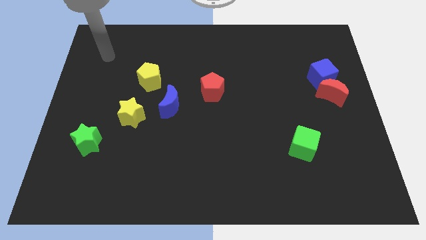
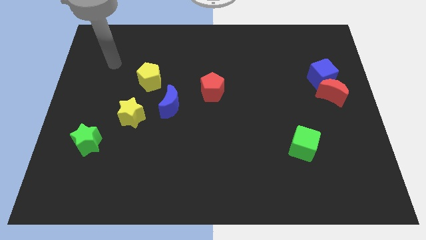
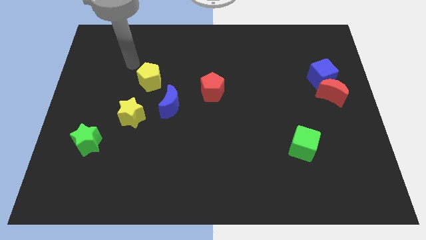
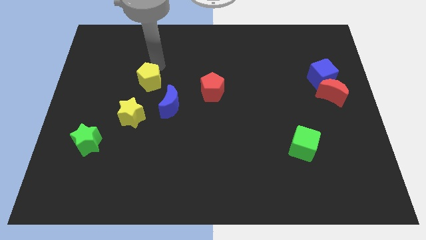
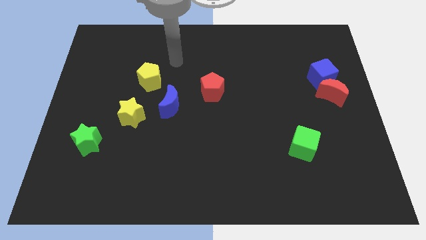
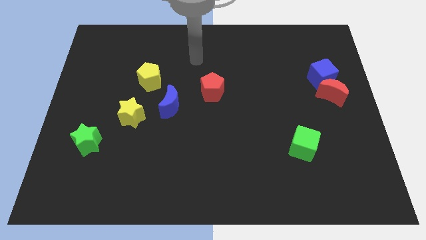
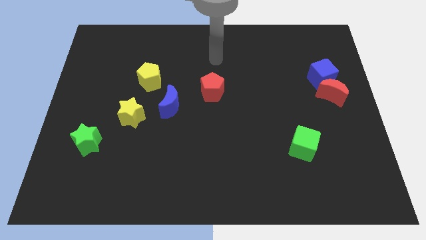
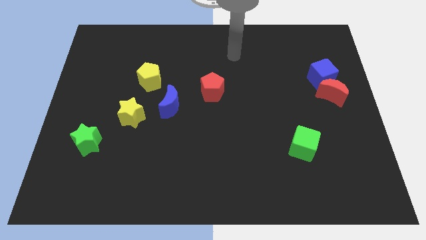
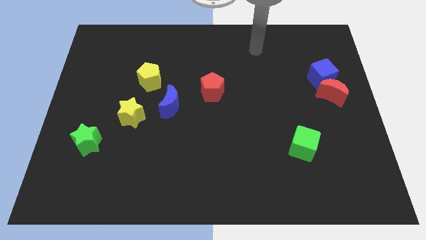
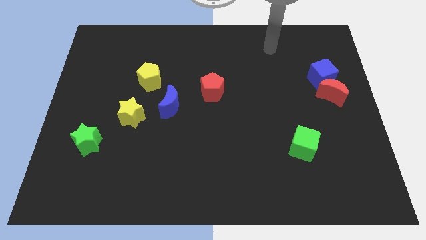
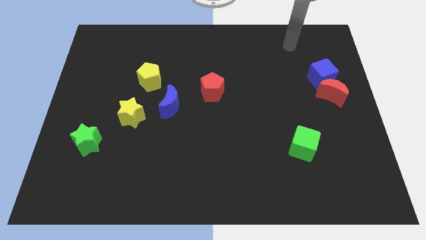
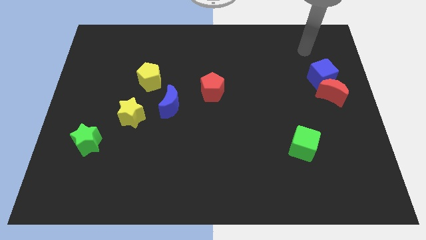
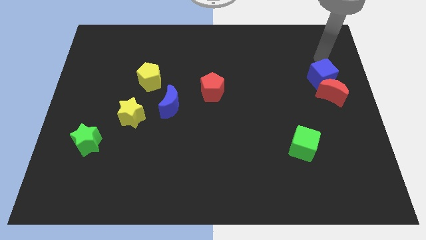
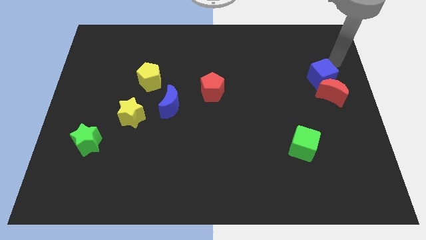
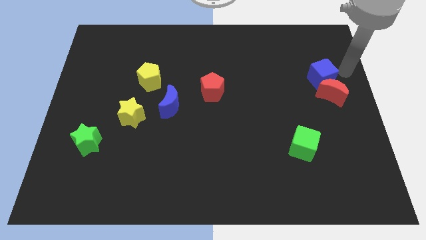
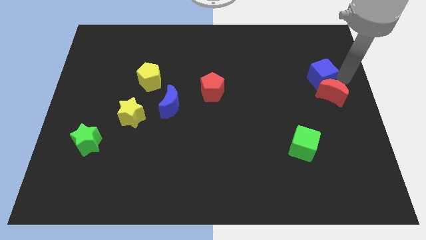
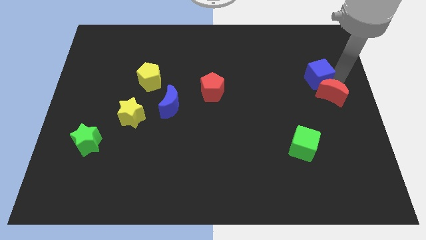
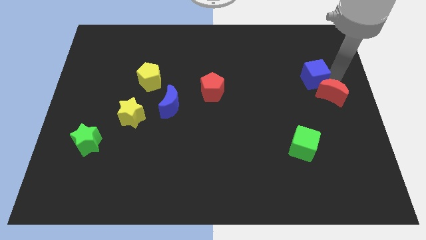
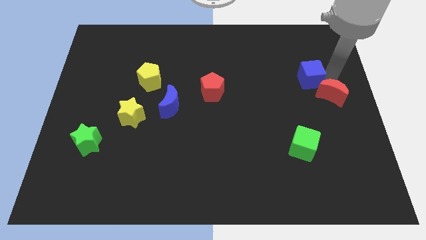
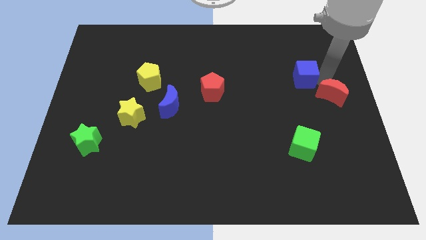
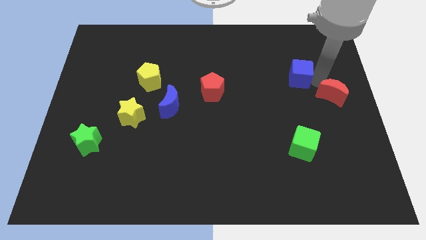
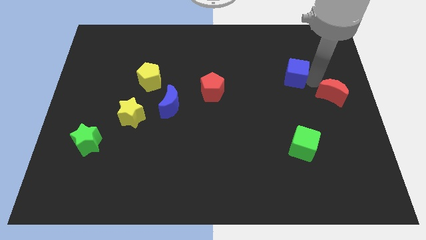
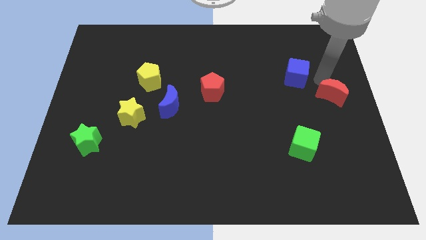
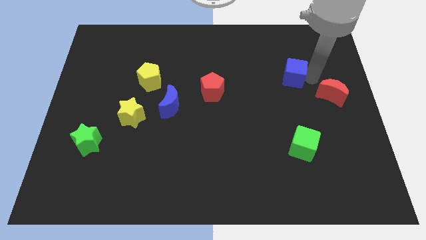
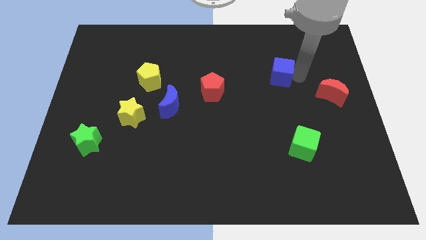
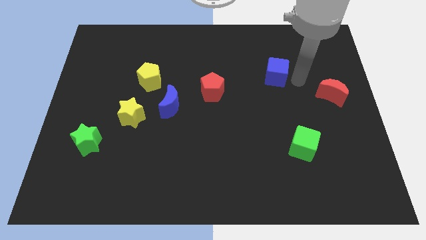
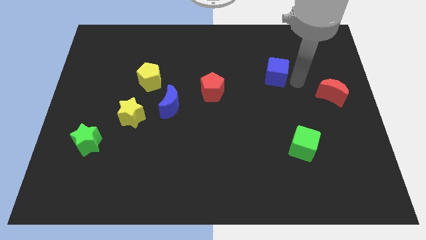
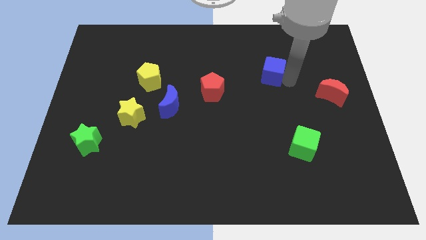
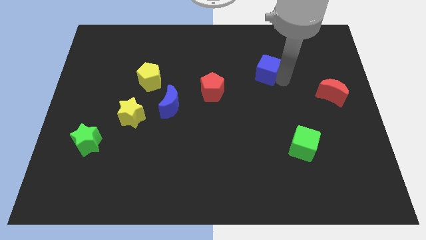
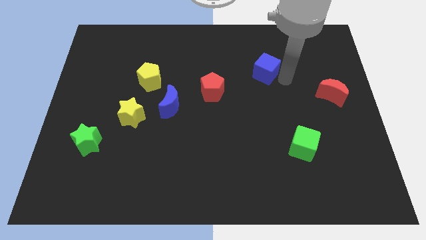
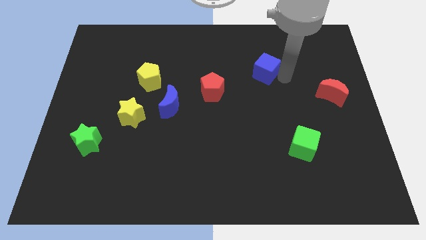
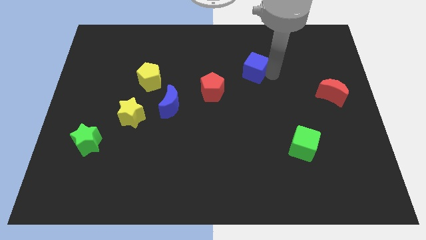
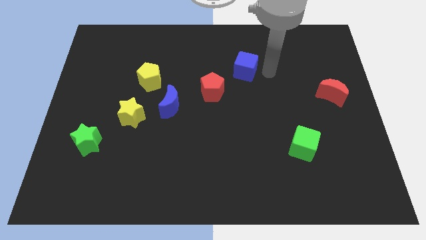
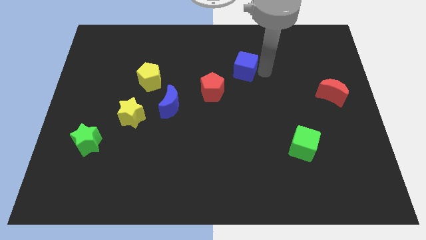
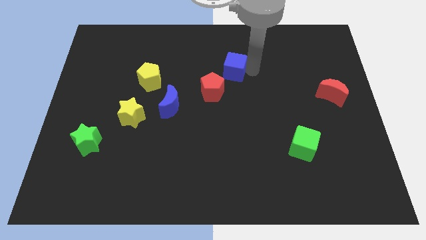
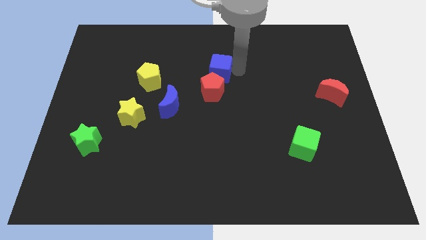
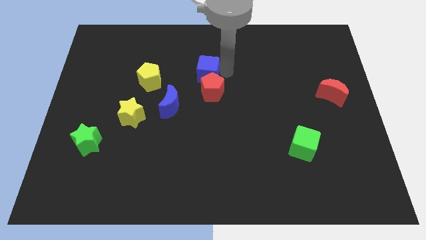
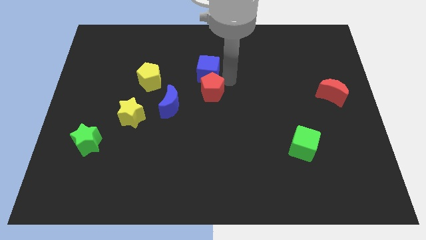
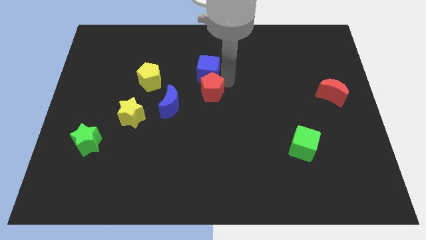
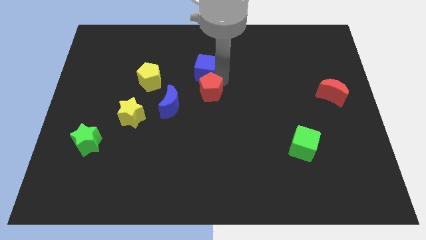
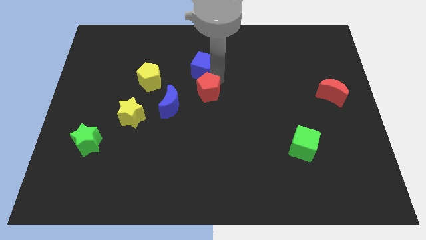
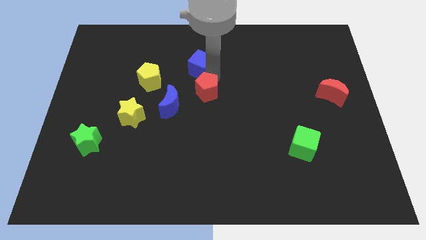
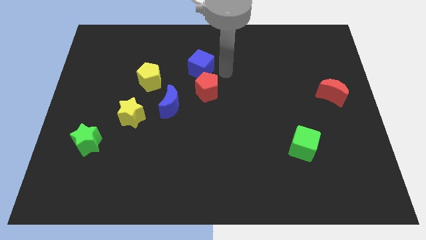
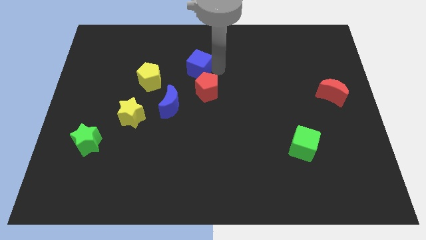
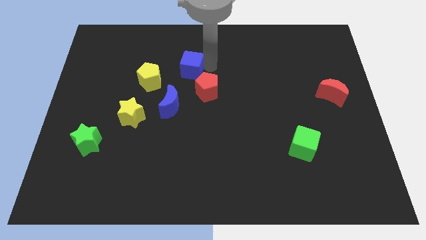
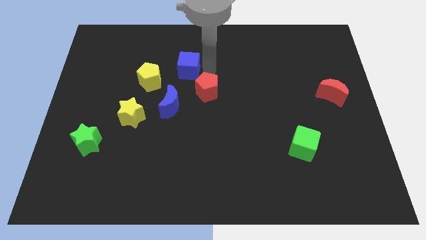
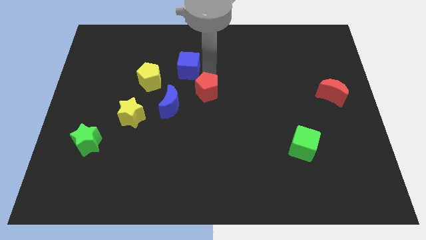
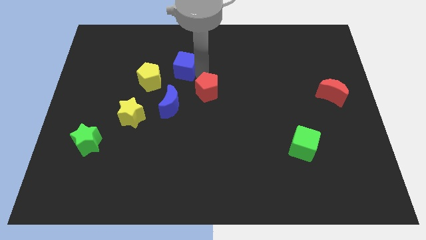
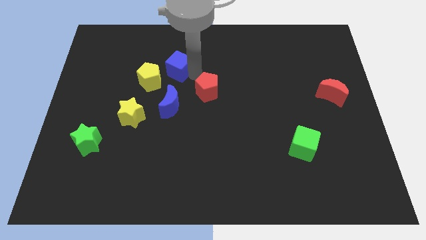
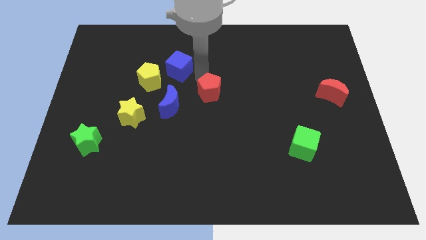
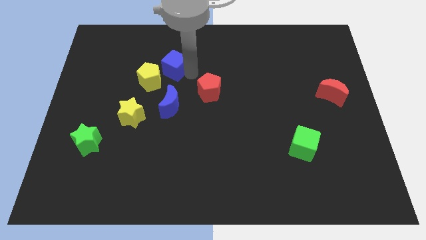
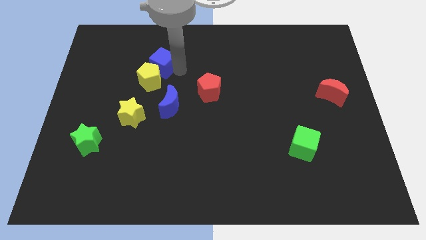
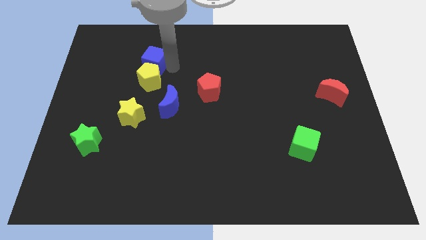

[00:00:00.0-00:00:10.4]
put the blue cube to the top left of the yellow pentagon

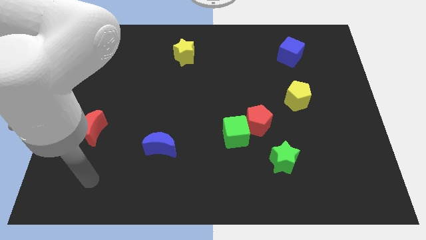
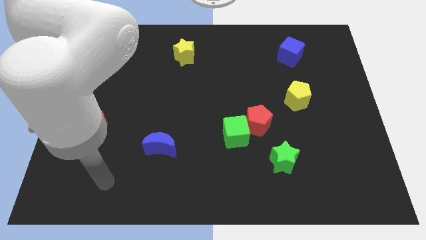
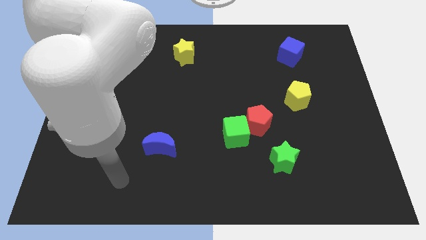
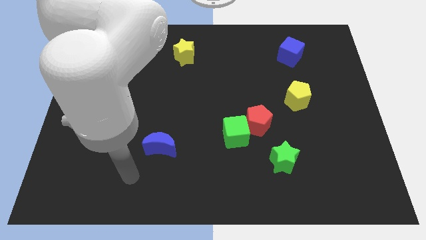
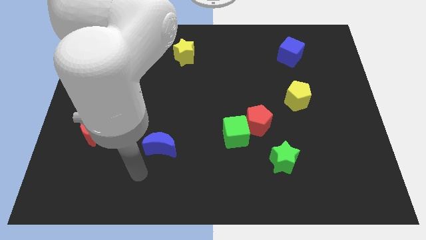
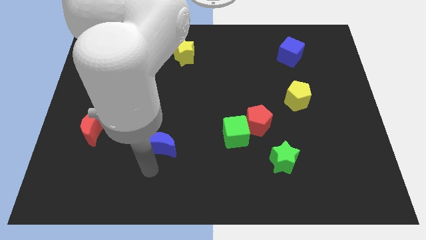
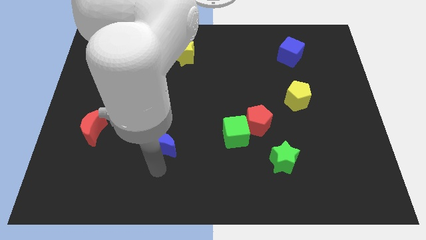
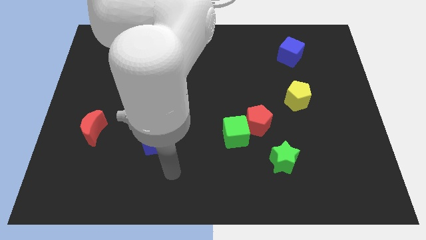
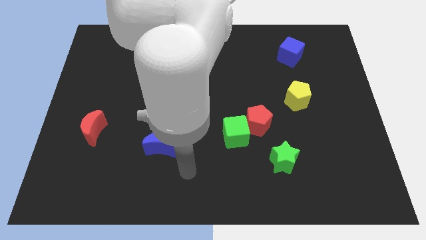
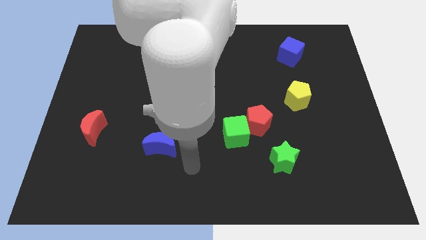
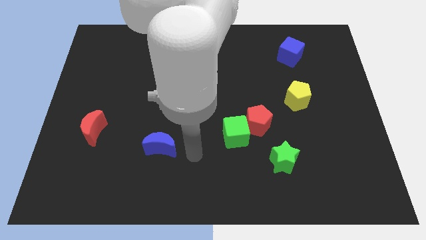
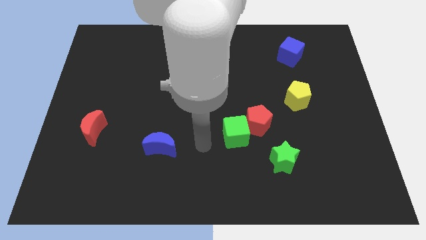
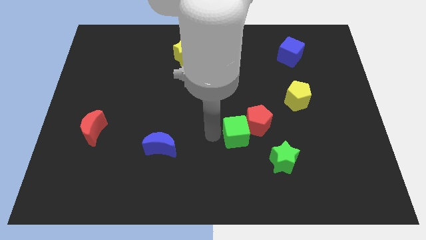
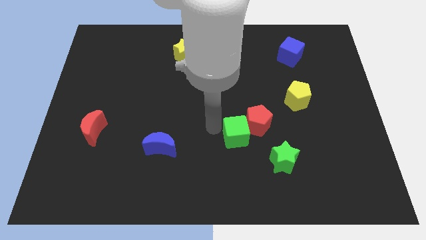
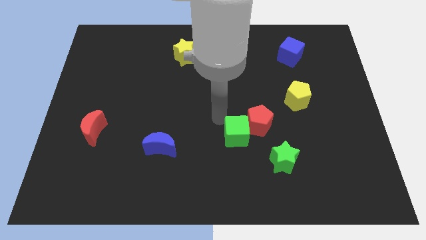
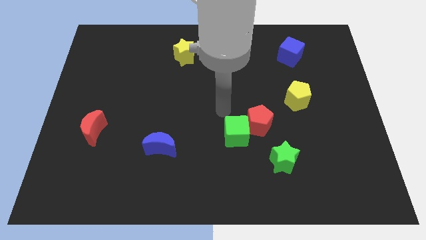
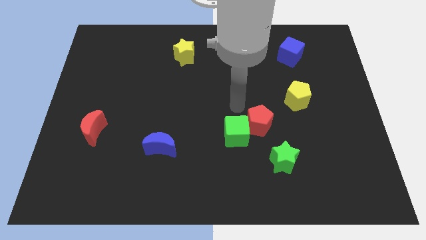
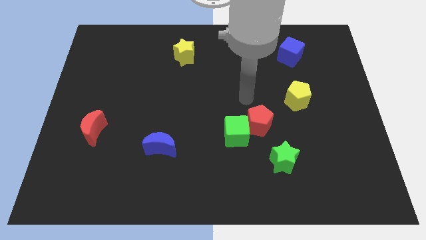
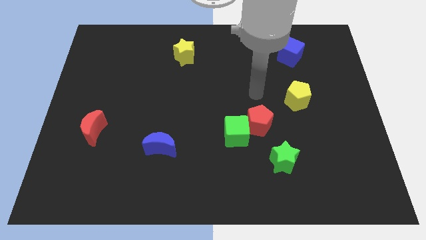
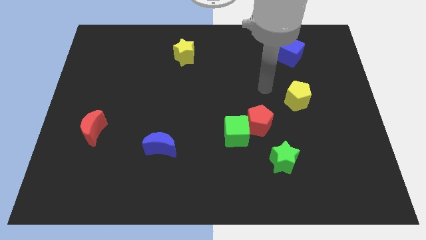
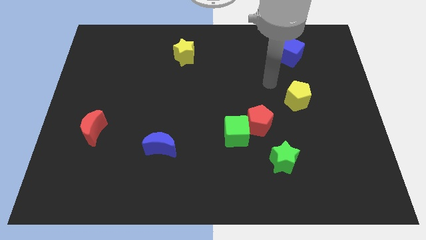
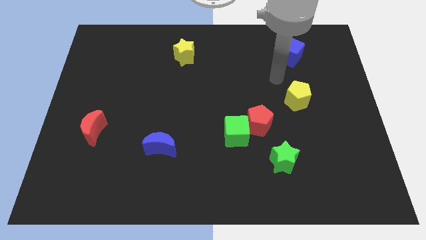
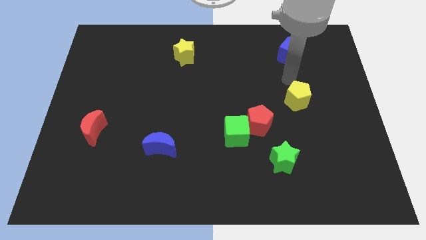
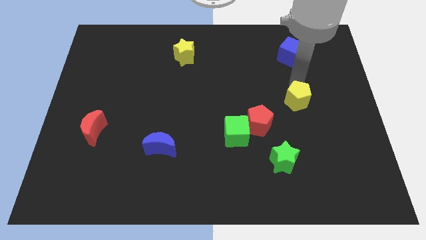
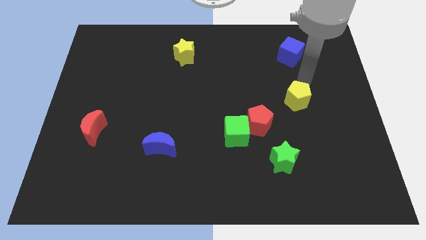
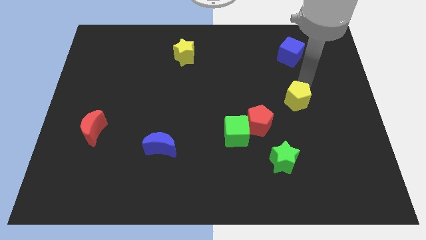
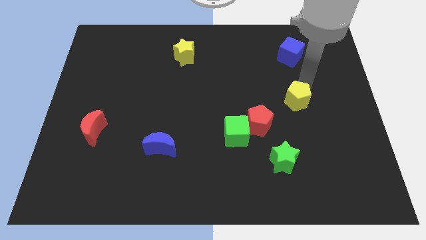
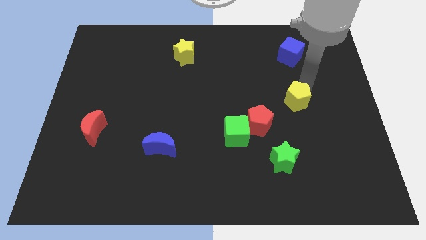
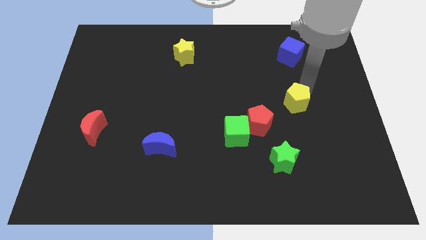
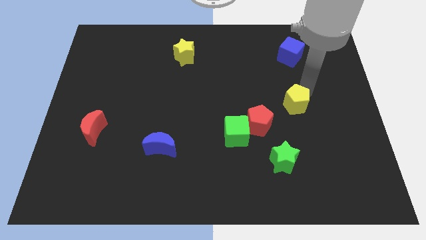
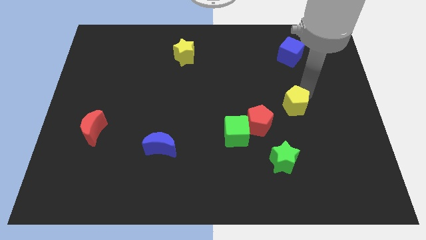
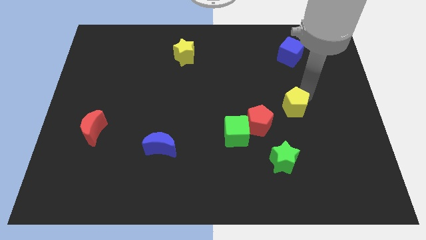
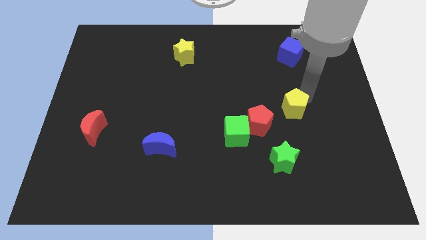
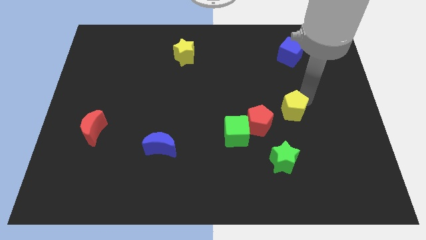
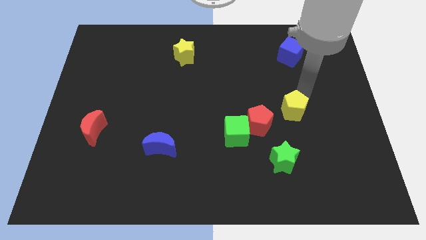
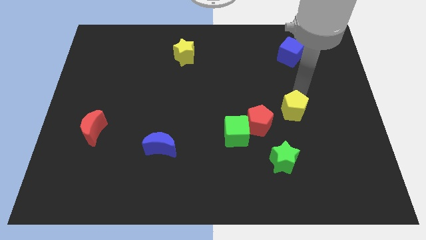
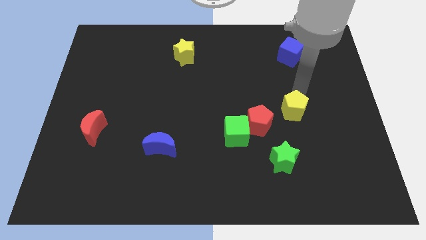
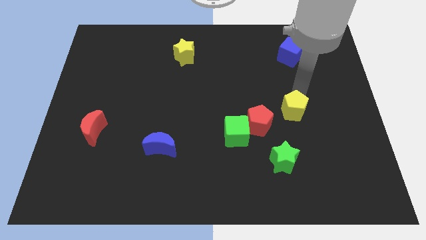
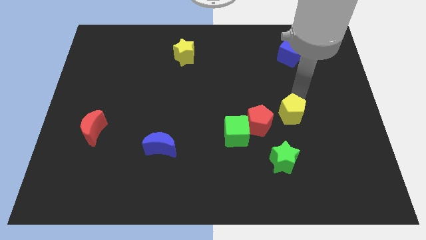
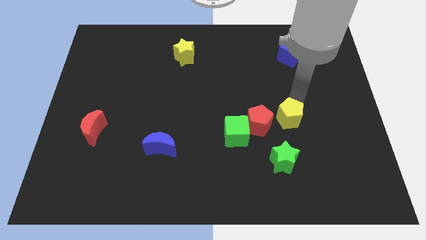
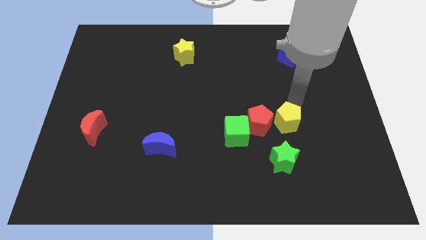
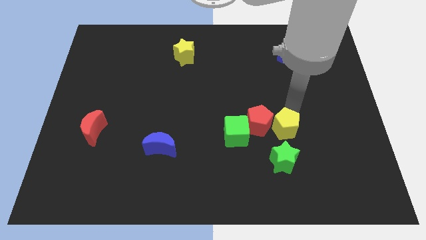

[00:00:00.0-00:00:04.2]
push the yellow pentagon to the bottom right of the red pentagon
